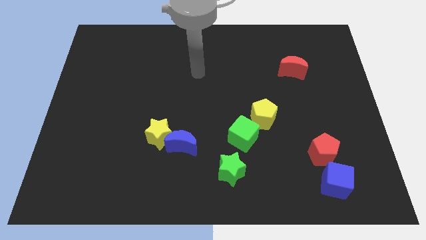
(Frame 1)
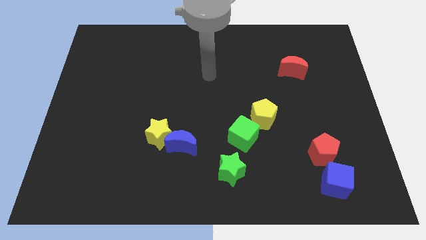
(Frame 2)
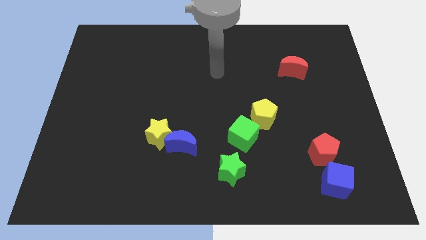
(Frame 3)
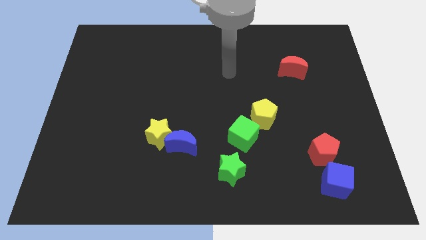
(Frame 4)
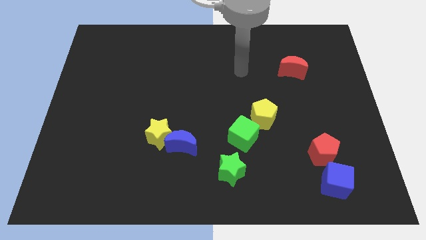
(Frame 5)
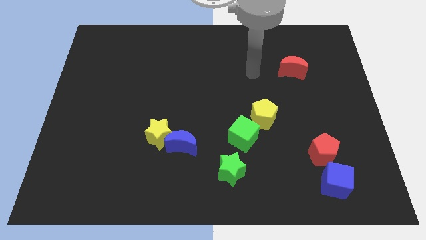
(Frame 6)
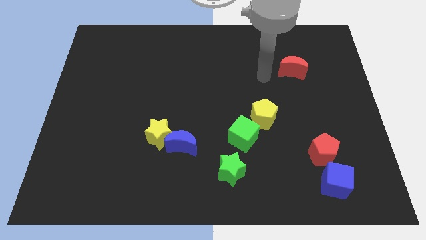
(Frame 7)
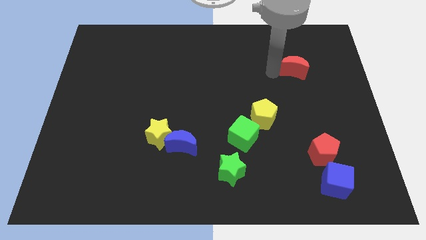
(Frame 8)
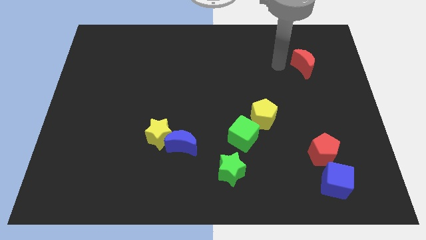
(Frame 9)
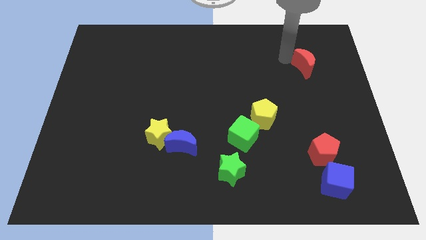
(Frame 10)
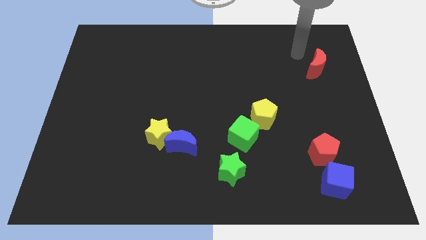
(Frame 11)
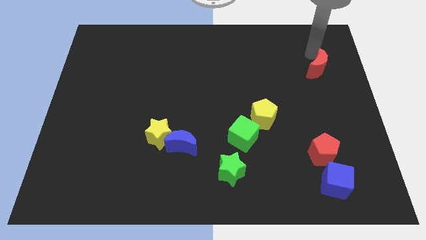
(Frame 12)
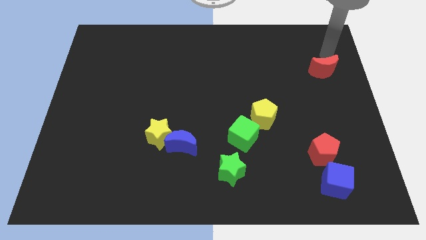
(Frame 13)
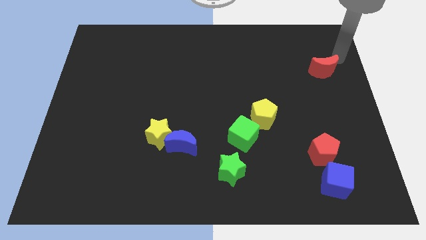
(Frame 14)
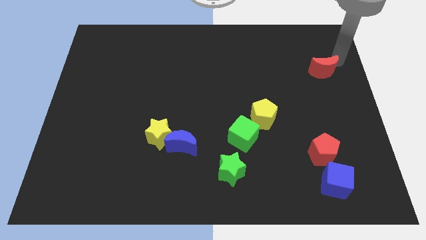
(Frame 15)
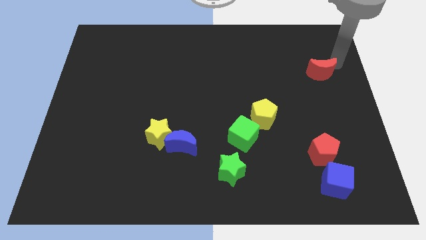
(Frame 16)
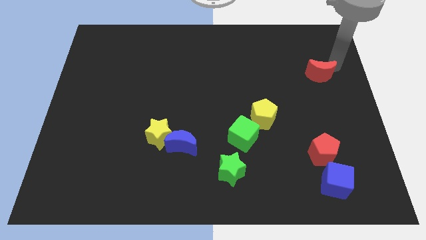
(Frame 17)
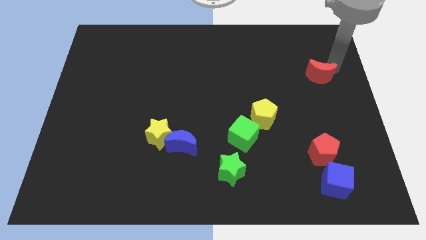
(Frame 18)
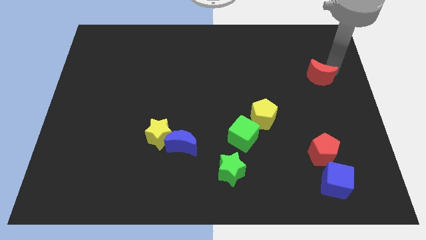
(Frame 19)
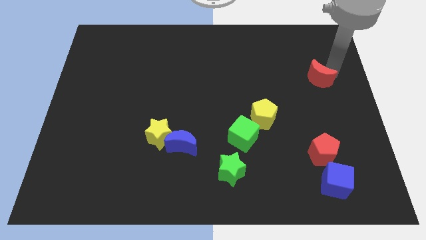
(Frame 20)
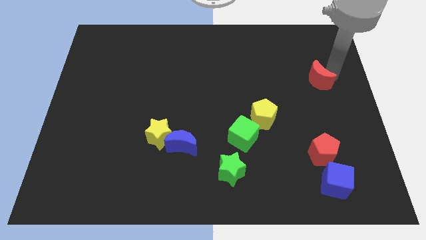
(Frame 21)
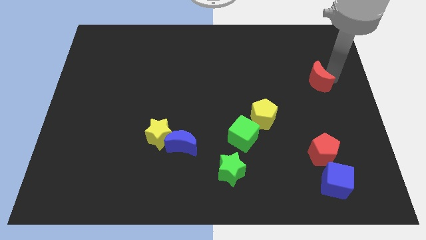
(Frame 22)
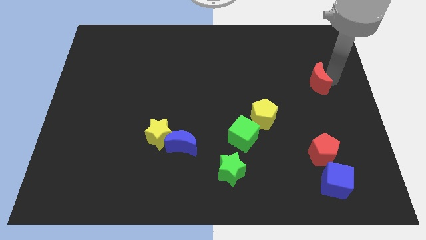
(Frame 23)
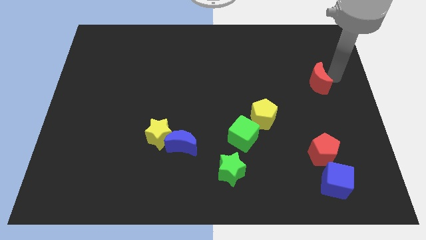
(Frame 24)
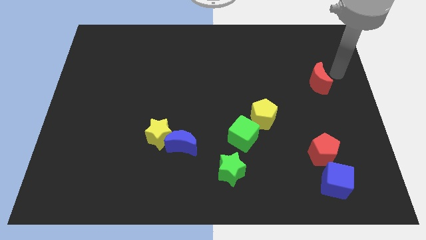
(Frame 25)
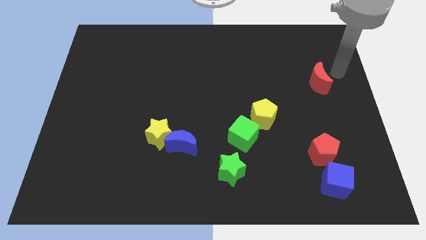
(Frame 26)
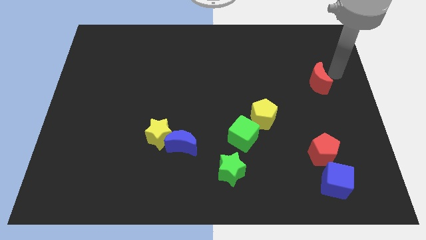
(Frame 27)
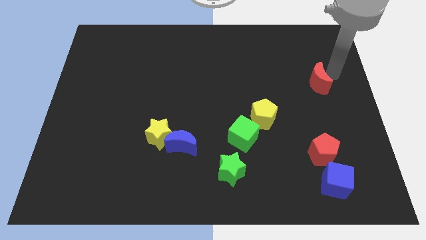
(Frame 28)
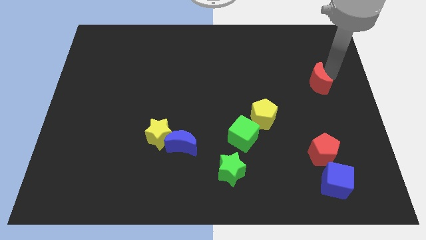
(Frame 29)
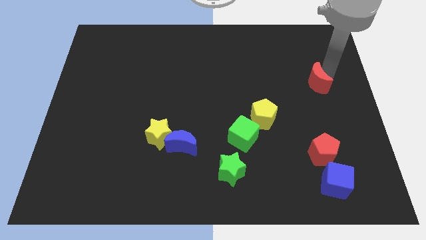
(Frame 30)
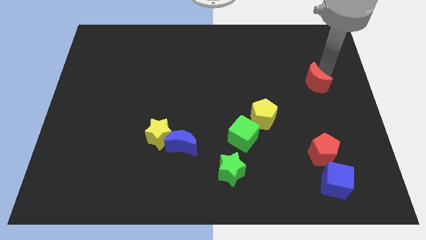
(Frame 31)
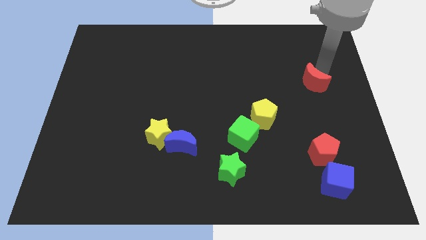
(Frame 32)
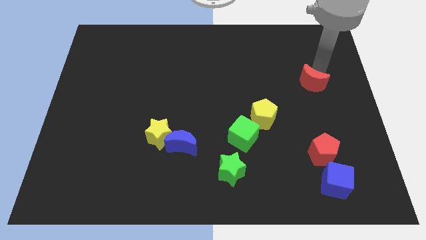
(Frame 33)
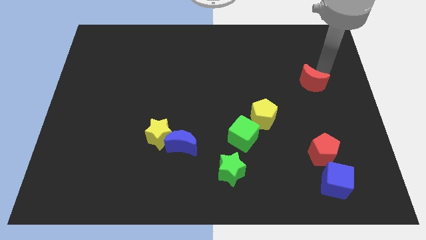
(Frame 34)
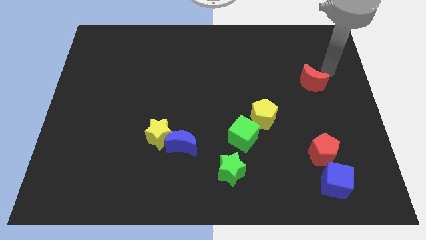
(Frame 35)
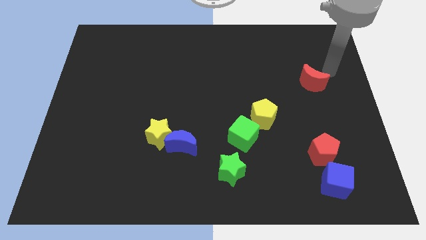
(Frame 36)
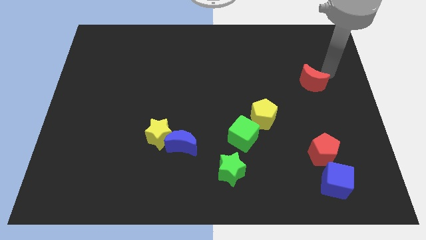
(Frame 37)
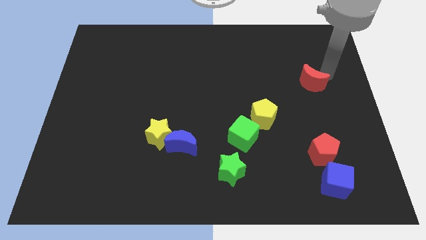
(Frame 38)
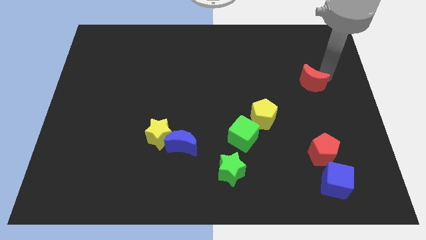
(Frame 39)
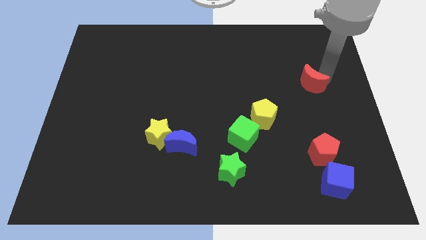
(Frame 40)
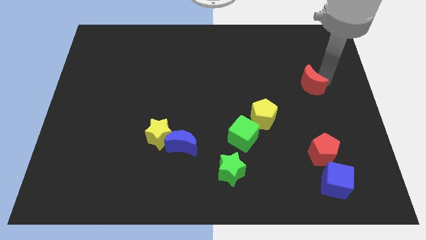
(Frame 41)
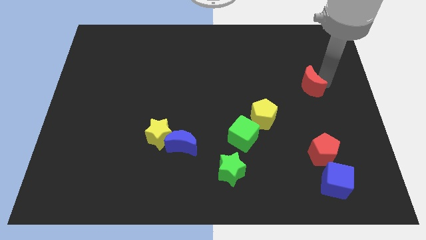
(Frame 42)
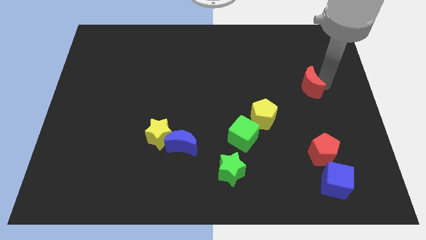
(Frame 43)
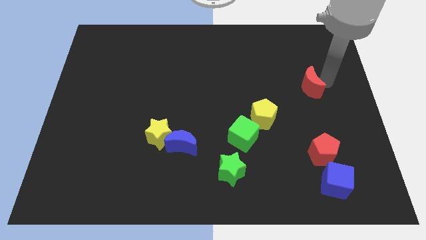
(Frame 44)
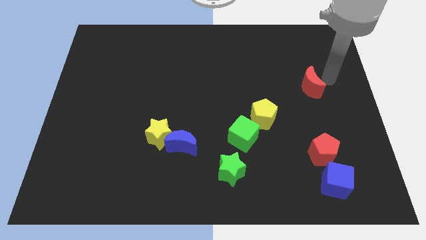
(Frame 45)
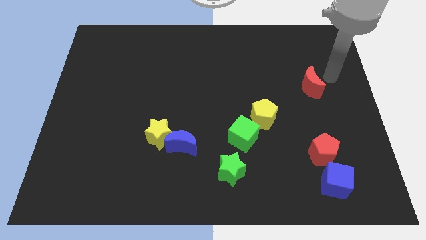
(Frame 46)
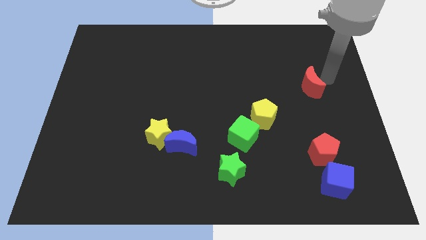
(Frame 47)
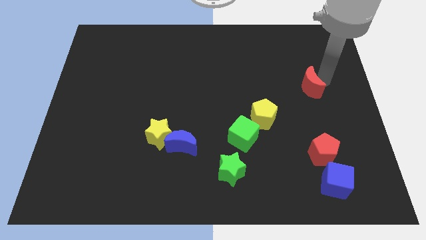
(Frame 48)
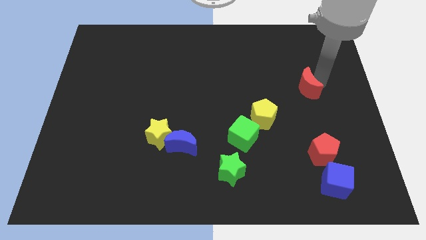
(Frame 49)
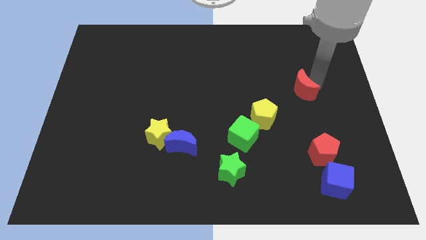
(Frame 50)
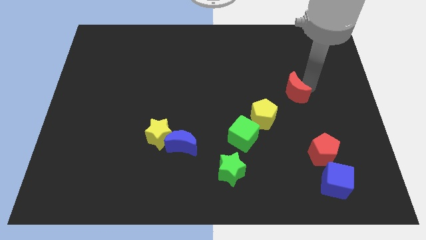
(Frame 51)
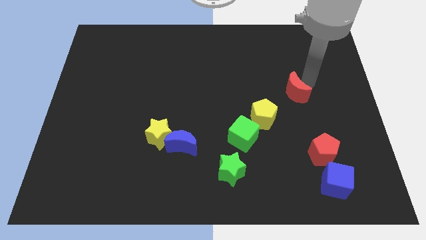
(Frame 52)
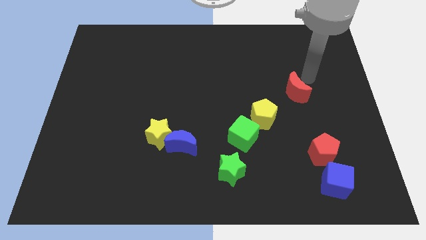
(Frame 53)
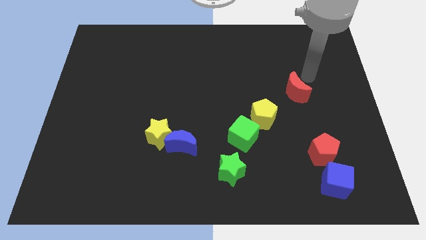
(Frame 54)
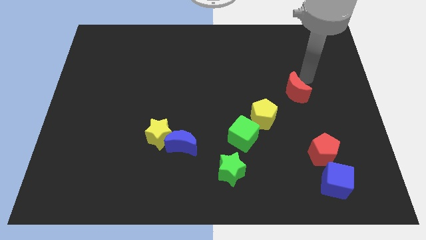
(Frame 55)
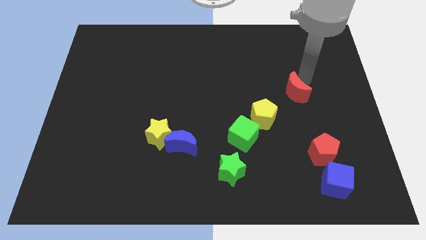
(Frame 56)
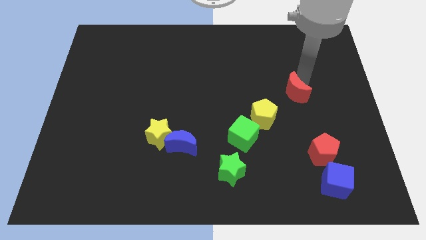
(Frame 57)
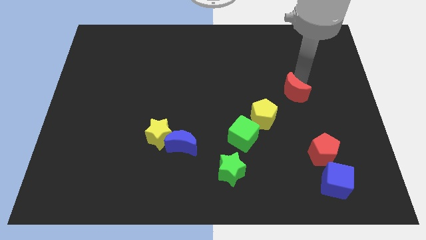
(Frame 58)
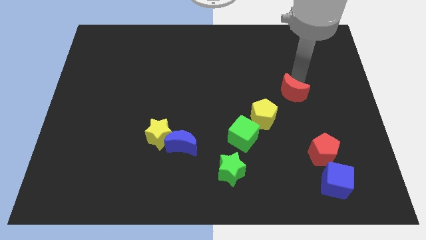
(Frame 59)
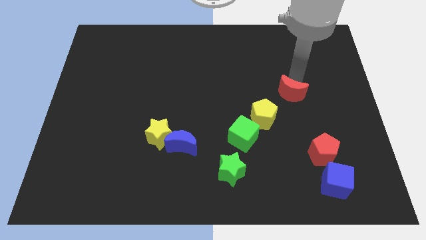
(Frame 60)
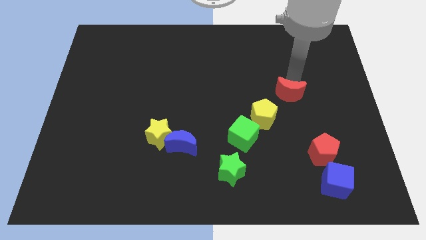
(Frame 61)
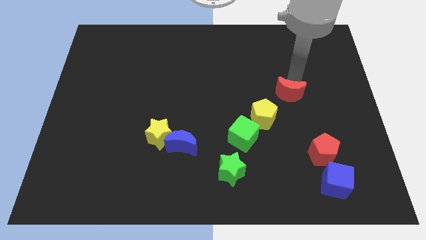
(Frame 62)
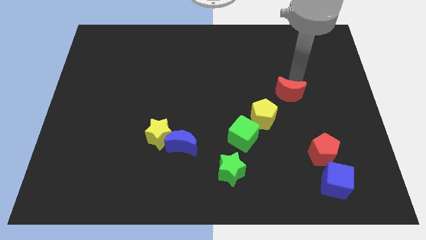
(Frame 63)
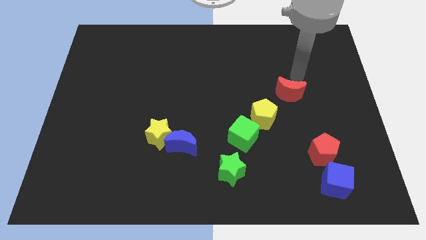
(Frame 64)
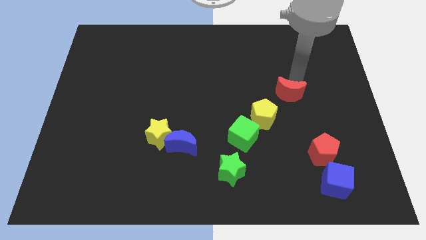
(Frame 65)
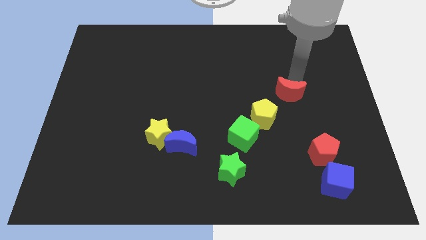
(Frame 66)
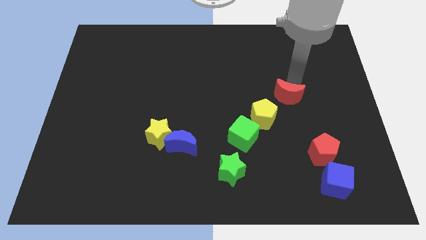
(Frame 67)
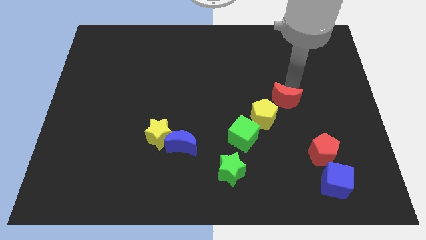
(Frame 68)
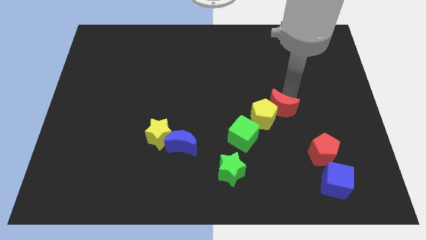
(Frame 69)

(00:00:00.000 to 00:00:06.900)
slide the red moon to the yellow pentagon

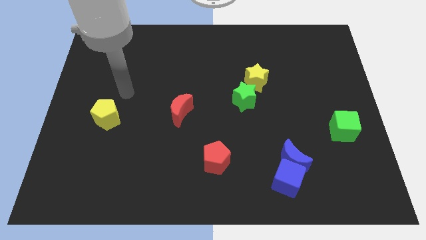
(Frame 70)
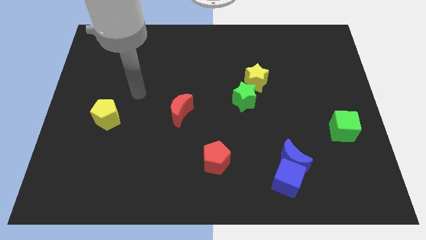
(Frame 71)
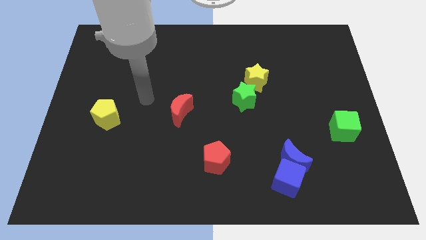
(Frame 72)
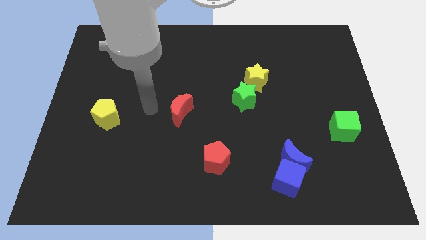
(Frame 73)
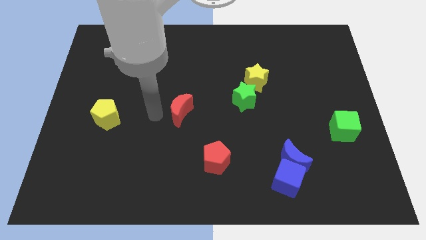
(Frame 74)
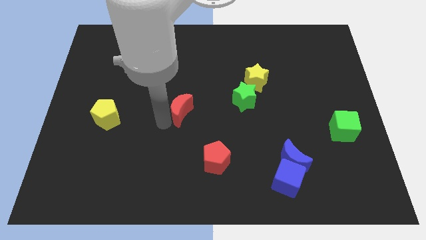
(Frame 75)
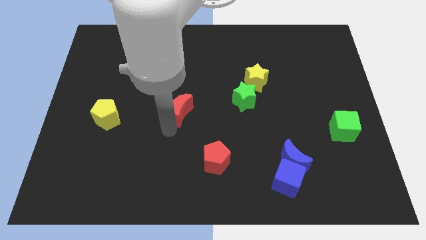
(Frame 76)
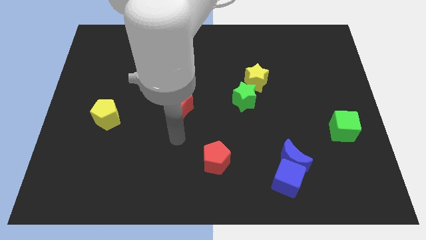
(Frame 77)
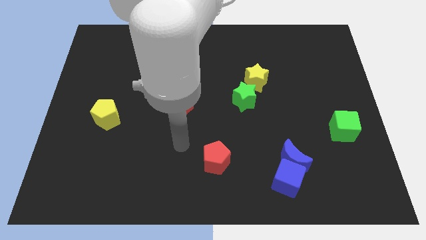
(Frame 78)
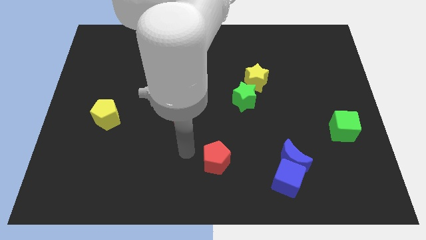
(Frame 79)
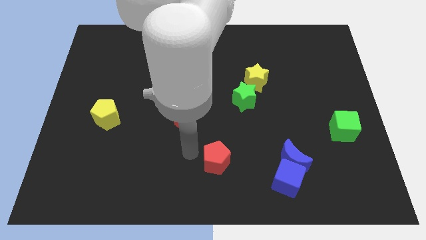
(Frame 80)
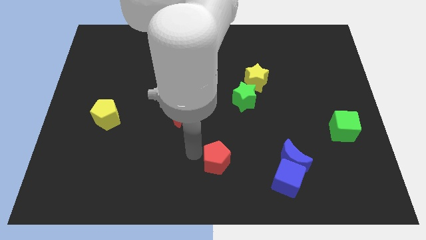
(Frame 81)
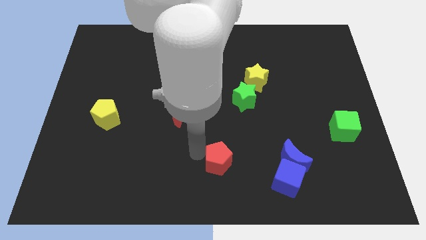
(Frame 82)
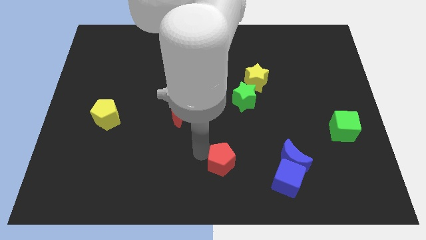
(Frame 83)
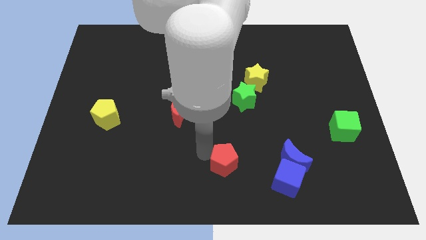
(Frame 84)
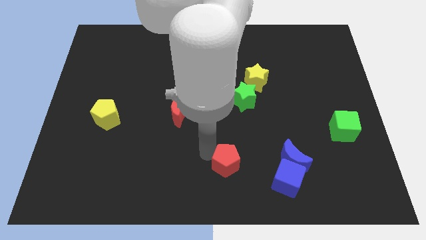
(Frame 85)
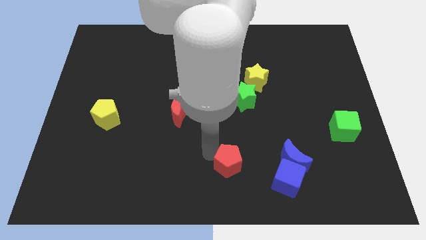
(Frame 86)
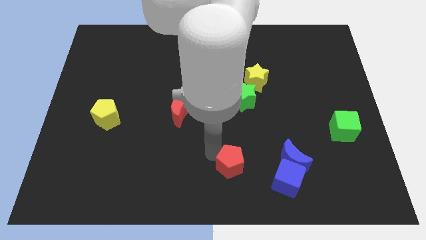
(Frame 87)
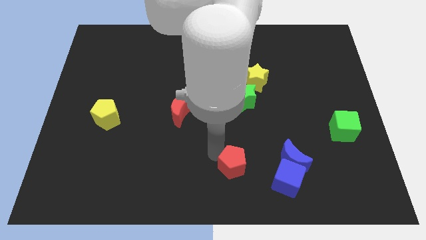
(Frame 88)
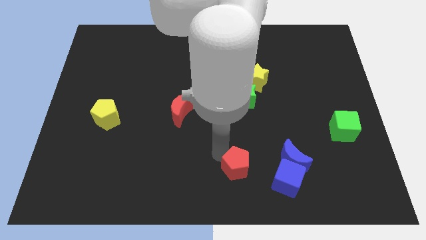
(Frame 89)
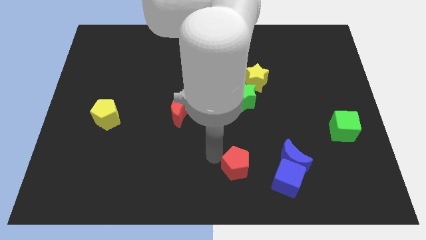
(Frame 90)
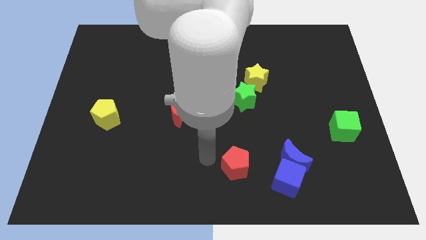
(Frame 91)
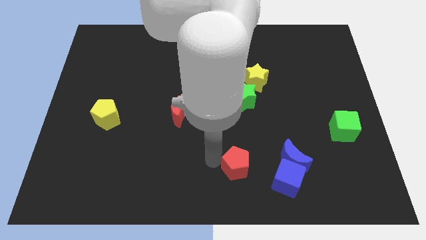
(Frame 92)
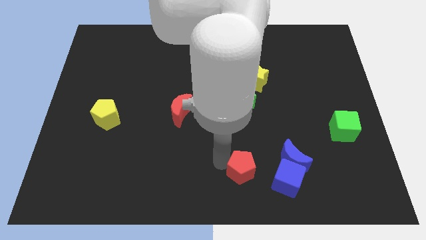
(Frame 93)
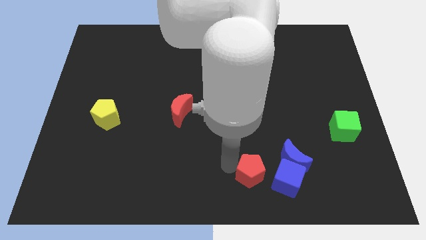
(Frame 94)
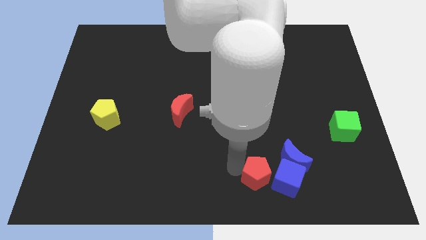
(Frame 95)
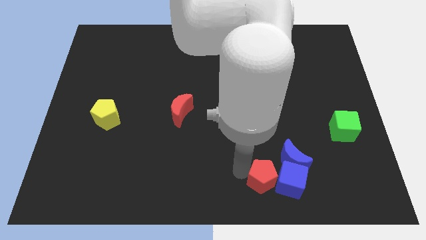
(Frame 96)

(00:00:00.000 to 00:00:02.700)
move the red pentagon towards the blue cube
